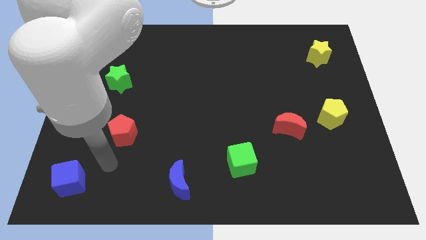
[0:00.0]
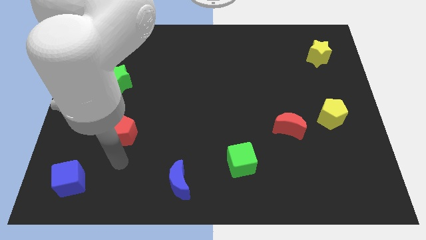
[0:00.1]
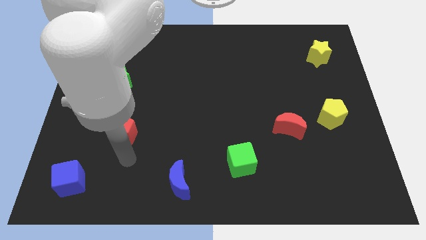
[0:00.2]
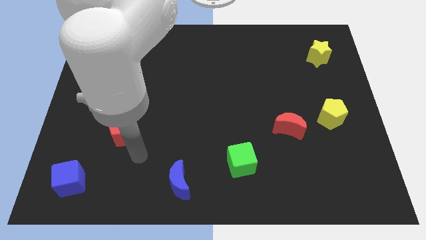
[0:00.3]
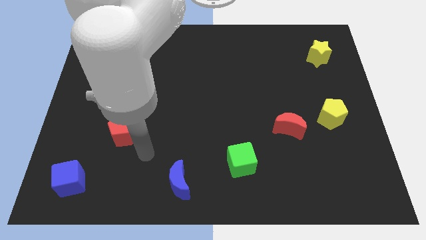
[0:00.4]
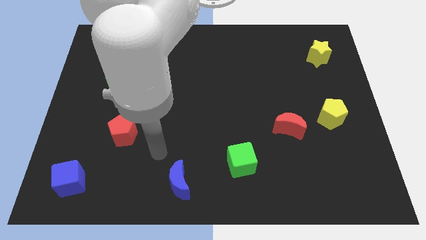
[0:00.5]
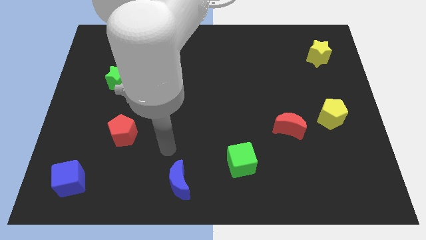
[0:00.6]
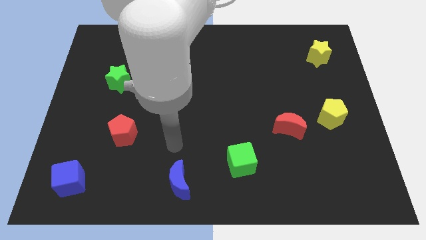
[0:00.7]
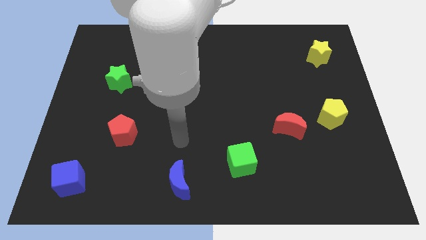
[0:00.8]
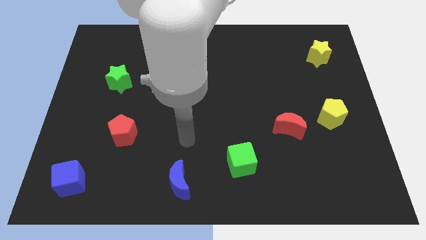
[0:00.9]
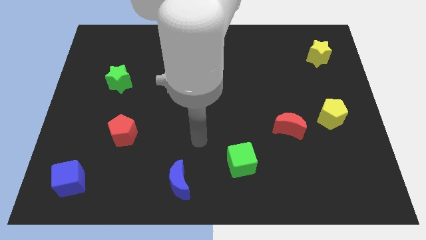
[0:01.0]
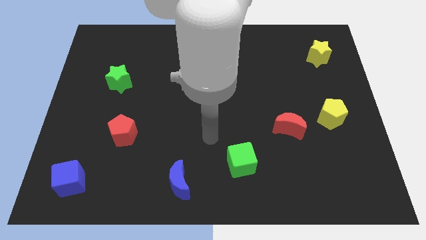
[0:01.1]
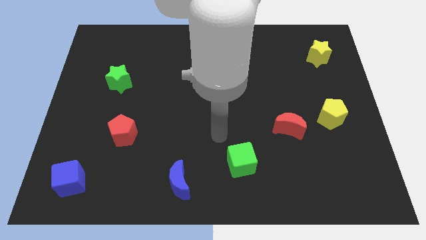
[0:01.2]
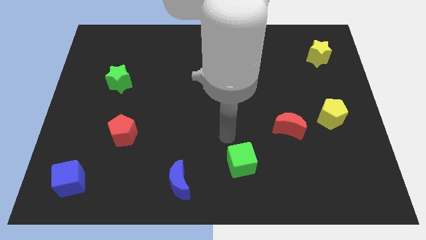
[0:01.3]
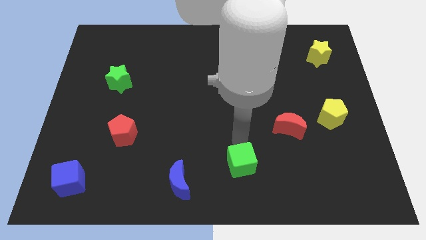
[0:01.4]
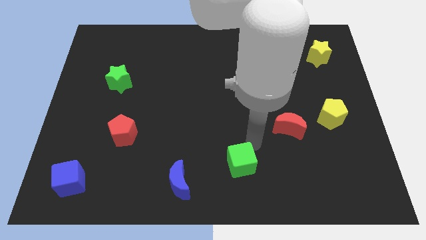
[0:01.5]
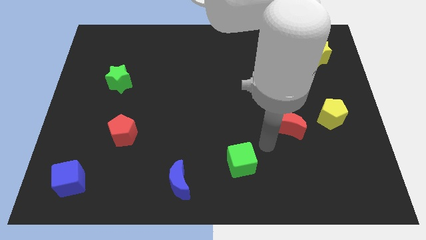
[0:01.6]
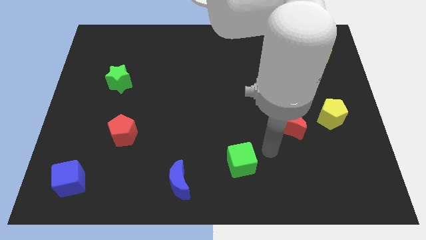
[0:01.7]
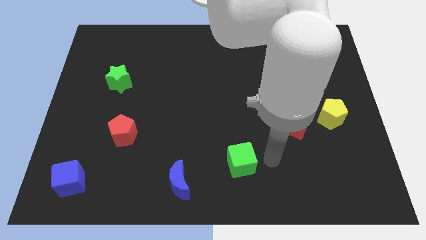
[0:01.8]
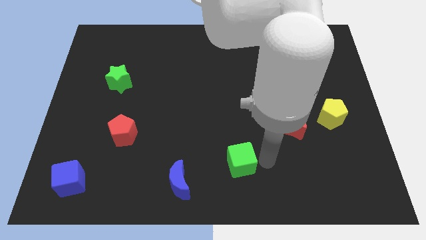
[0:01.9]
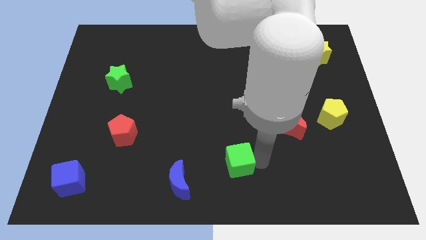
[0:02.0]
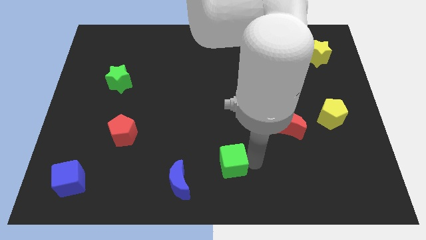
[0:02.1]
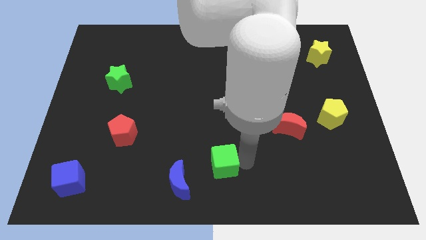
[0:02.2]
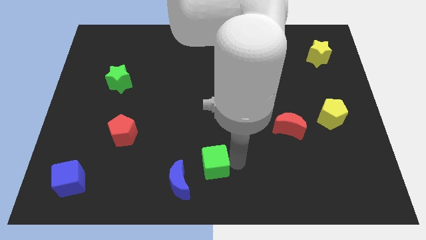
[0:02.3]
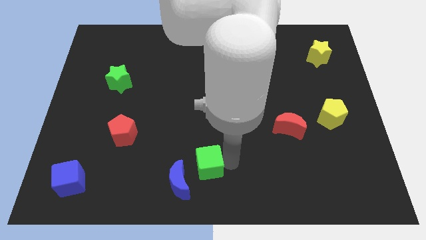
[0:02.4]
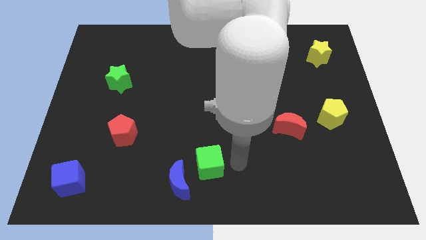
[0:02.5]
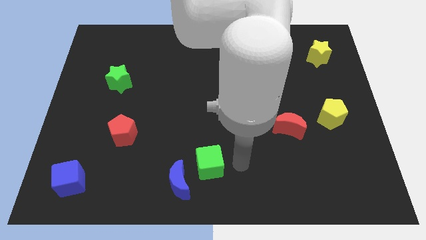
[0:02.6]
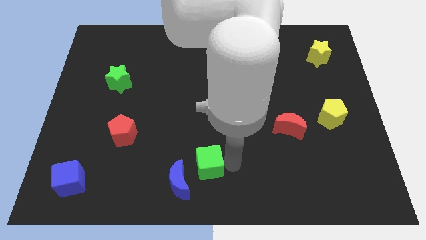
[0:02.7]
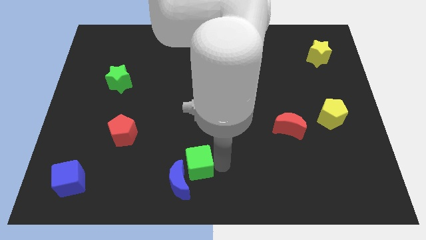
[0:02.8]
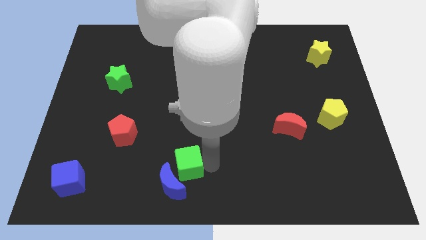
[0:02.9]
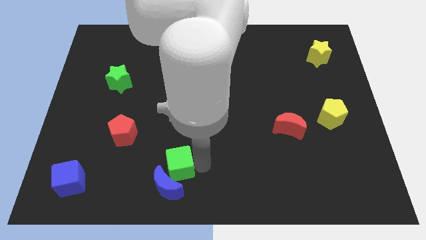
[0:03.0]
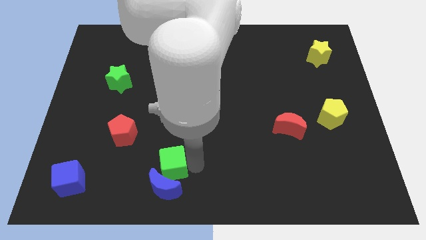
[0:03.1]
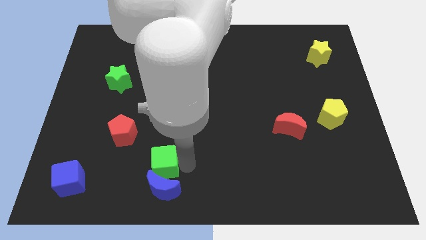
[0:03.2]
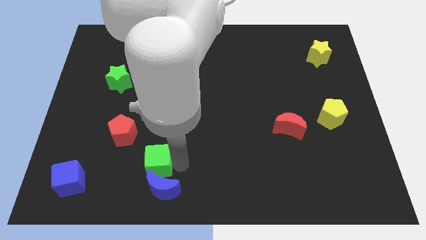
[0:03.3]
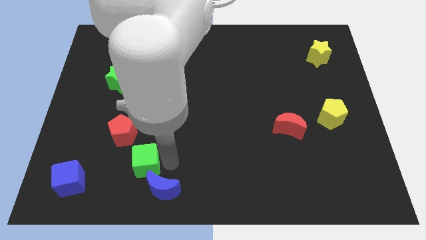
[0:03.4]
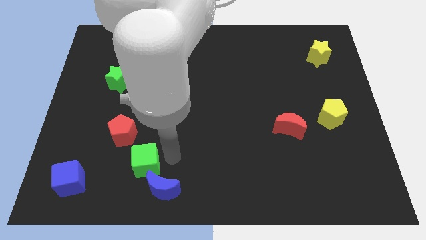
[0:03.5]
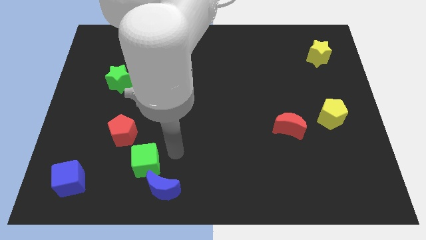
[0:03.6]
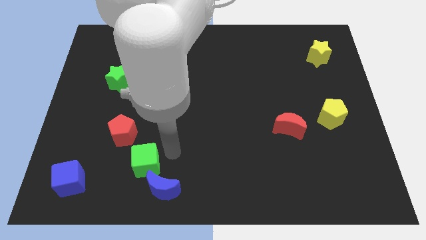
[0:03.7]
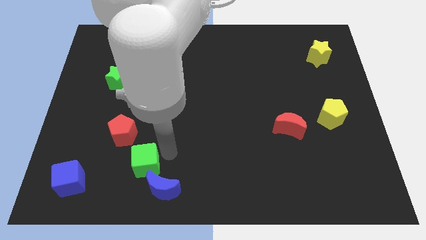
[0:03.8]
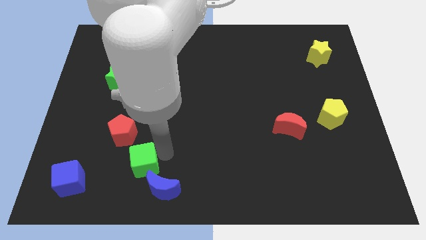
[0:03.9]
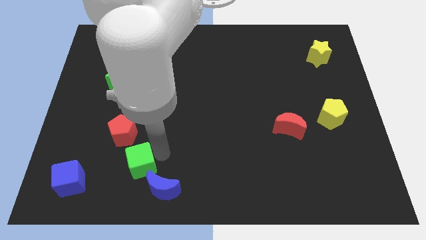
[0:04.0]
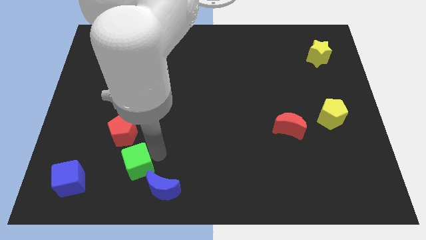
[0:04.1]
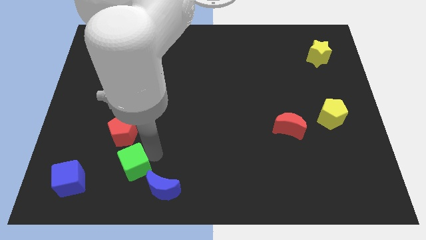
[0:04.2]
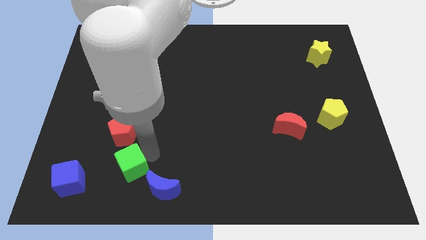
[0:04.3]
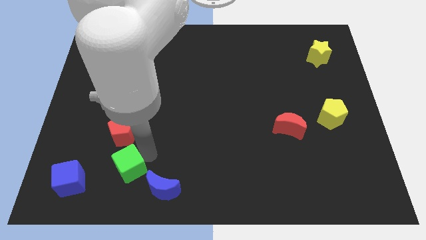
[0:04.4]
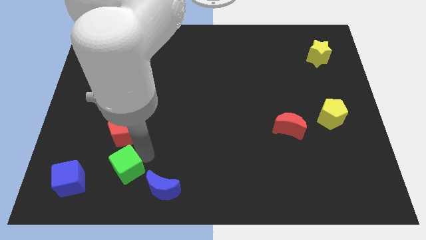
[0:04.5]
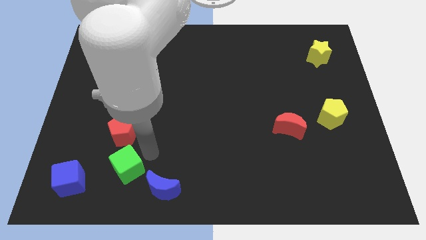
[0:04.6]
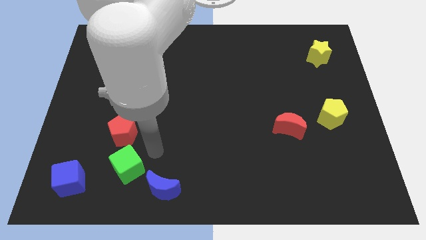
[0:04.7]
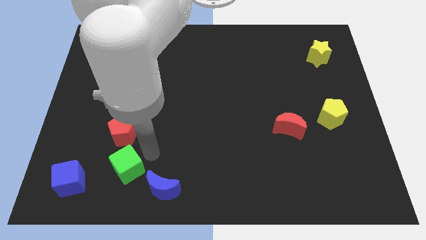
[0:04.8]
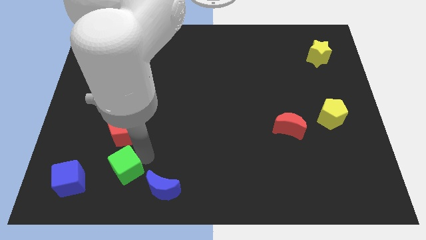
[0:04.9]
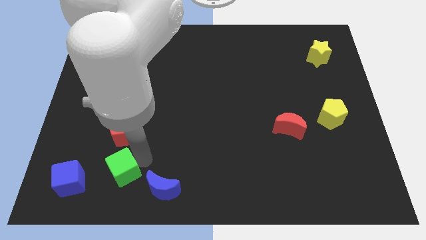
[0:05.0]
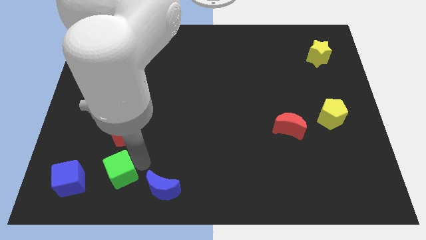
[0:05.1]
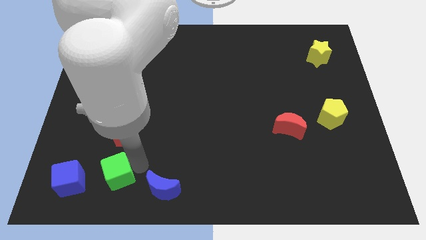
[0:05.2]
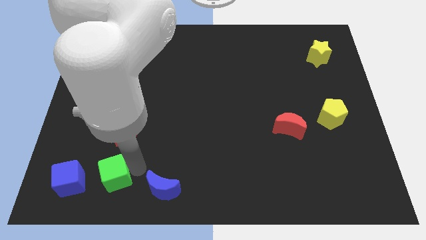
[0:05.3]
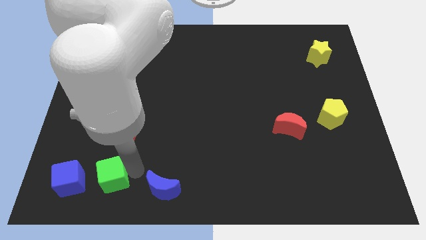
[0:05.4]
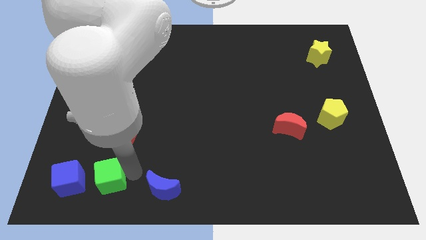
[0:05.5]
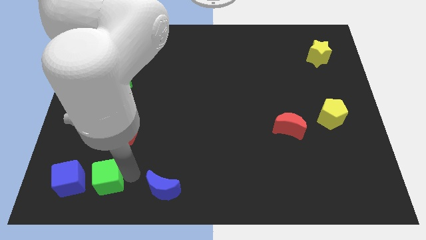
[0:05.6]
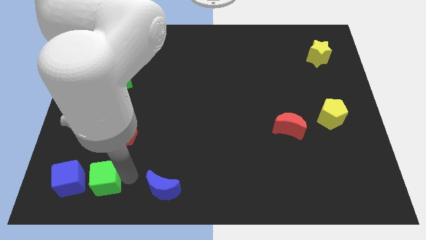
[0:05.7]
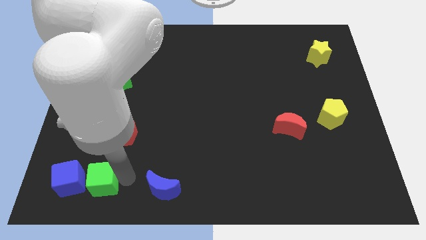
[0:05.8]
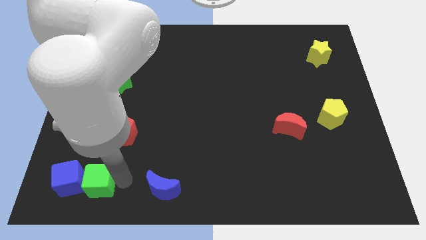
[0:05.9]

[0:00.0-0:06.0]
push the green cube to the blue cube
